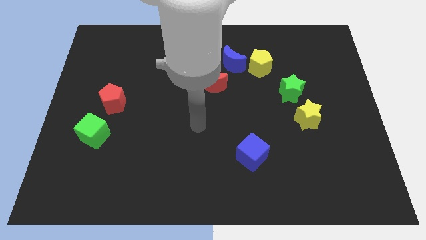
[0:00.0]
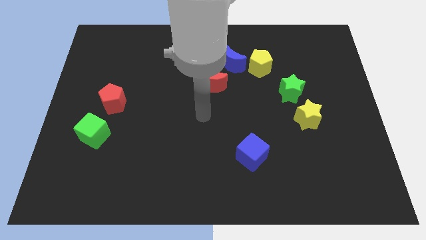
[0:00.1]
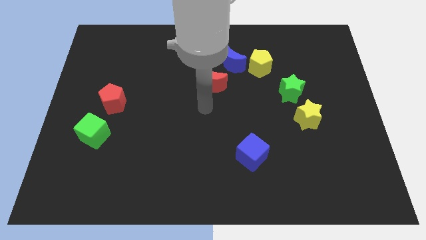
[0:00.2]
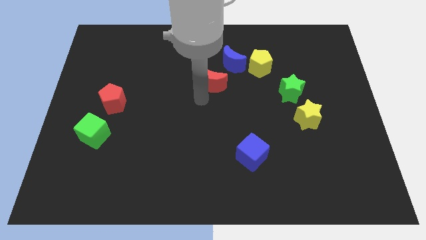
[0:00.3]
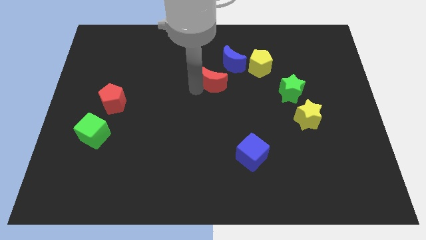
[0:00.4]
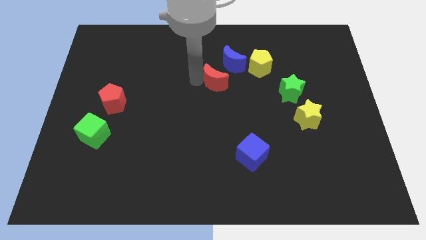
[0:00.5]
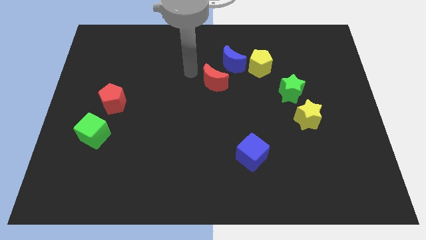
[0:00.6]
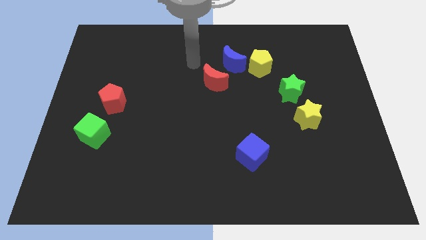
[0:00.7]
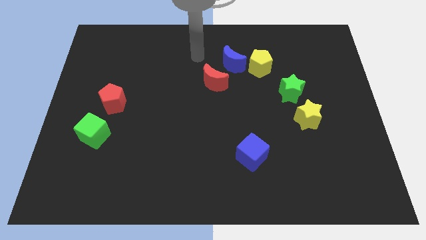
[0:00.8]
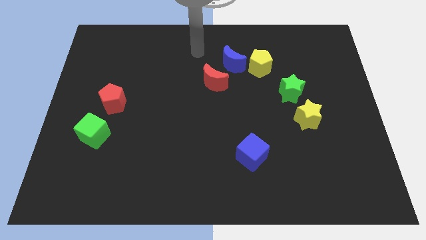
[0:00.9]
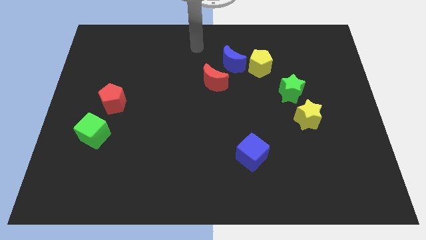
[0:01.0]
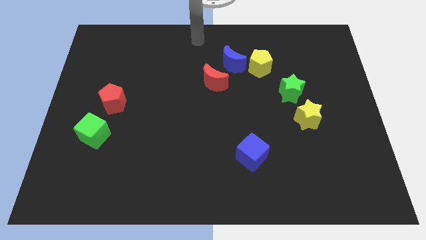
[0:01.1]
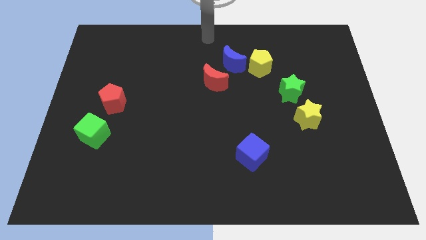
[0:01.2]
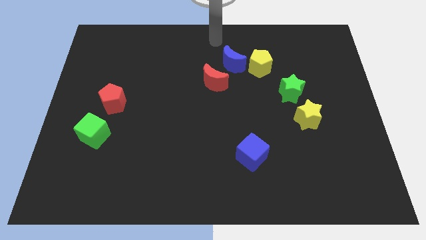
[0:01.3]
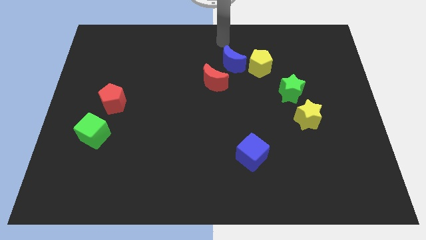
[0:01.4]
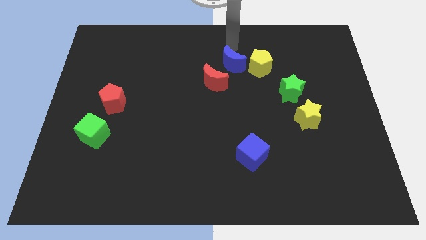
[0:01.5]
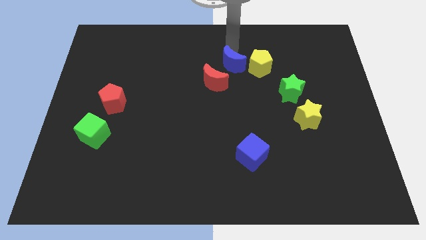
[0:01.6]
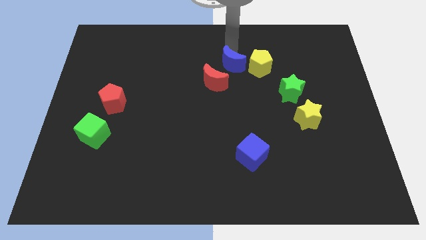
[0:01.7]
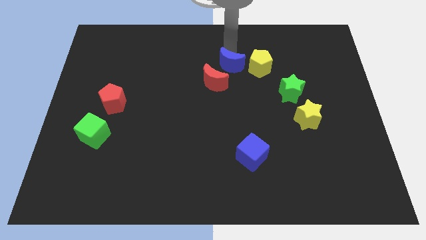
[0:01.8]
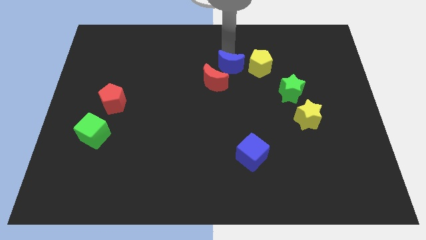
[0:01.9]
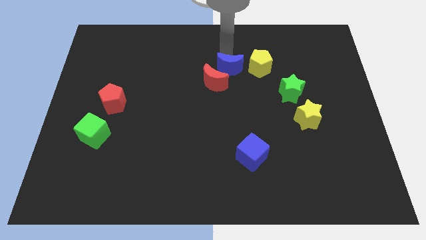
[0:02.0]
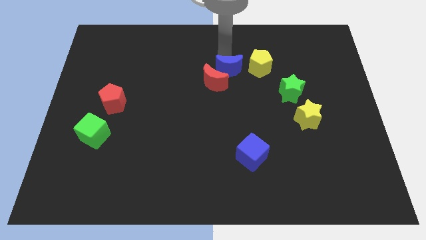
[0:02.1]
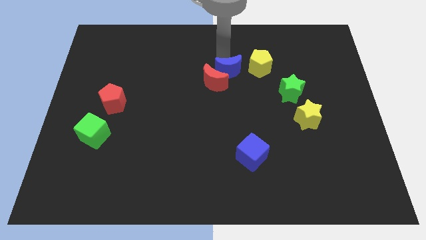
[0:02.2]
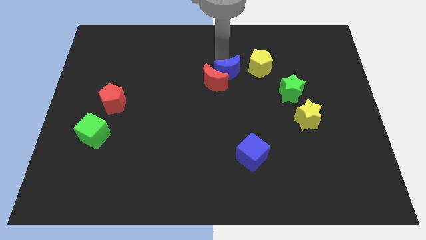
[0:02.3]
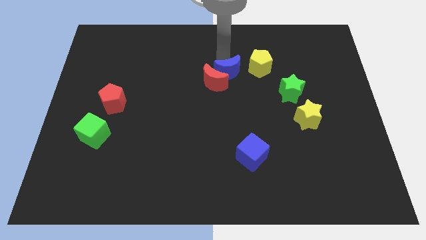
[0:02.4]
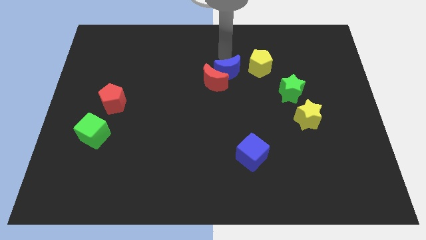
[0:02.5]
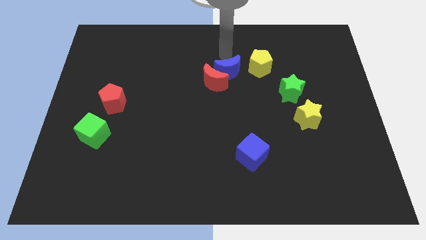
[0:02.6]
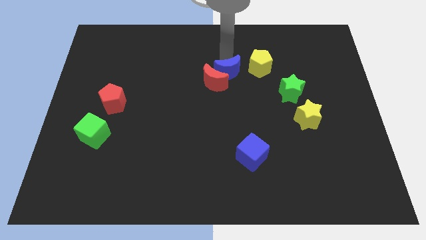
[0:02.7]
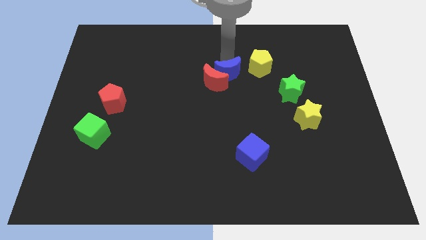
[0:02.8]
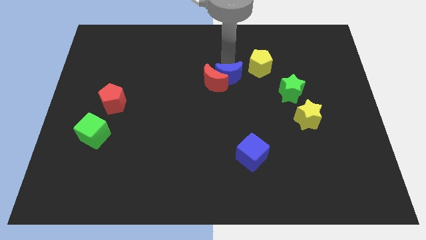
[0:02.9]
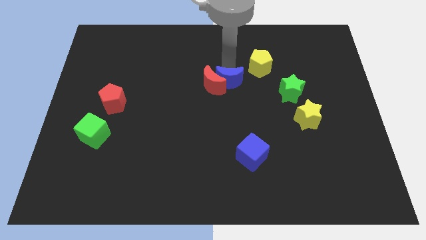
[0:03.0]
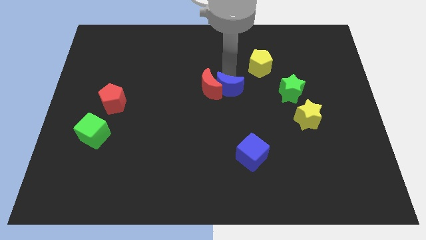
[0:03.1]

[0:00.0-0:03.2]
slightly push the blue moon downwards

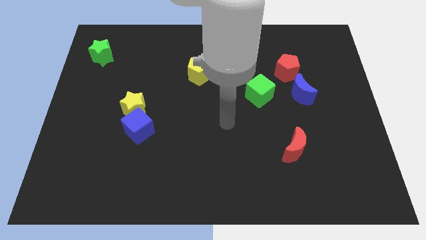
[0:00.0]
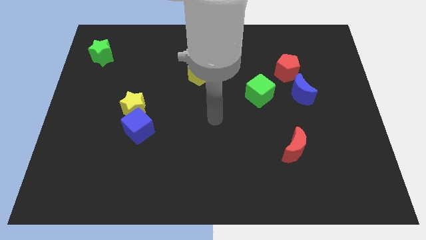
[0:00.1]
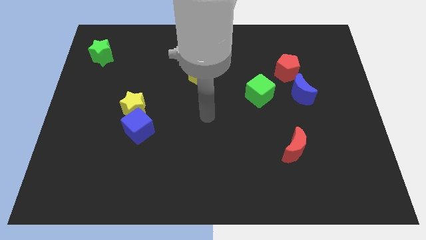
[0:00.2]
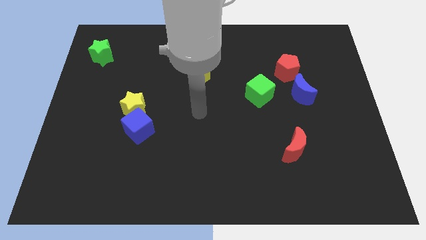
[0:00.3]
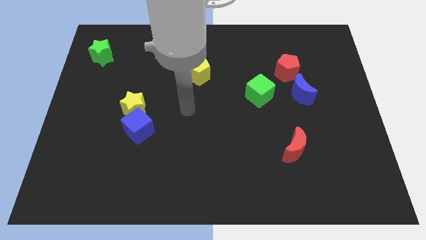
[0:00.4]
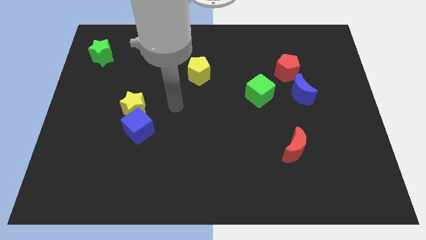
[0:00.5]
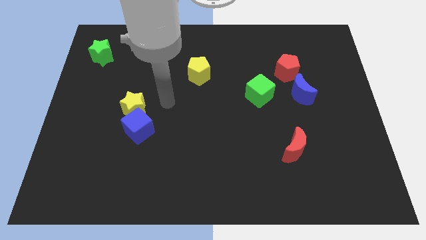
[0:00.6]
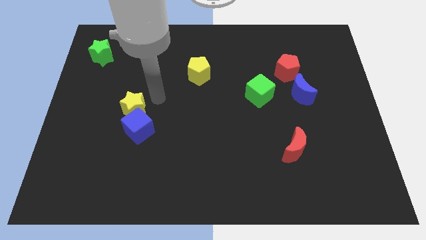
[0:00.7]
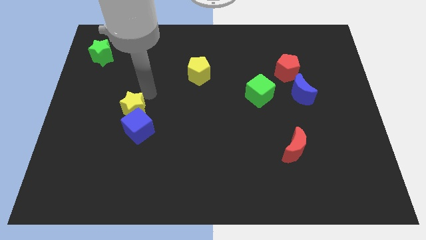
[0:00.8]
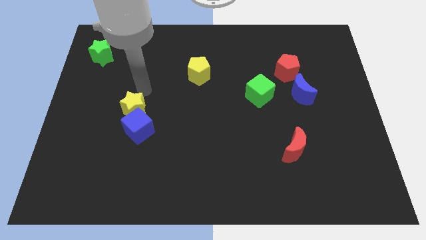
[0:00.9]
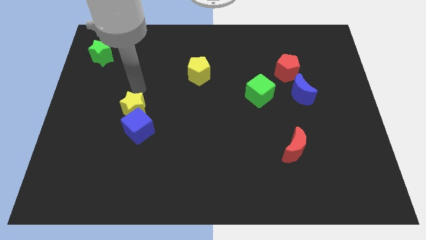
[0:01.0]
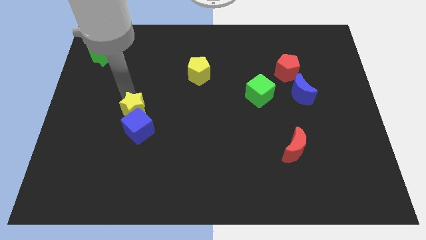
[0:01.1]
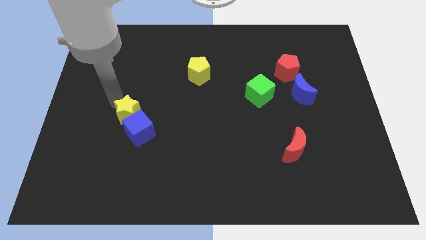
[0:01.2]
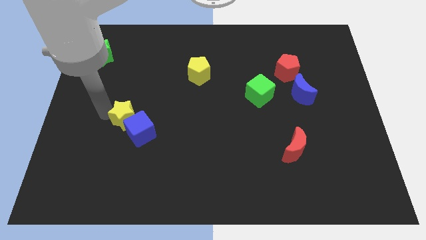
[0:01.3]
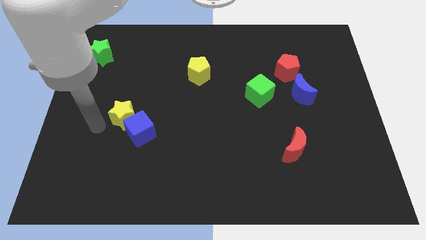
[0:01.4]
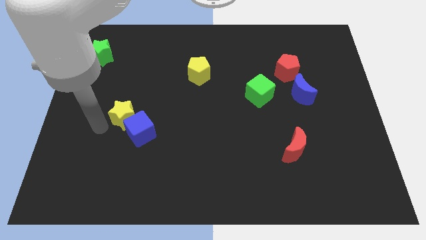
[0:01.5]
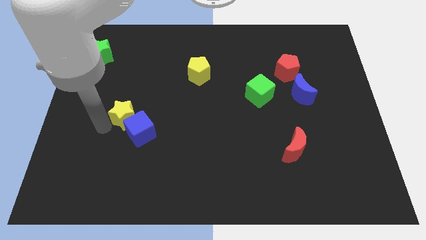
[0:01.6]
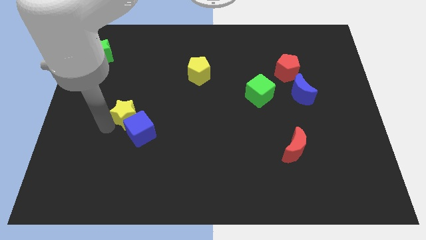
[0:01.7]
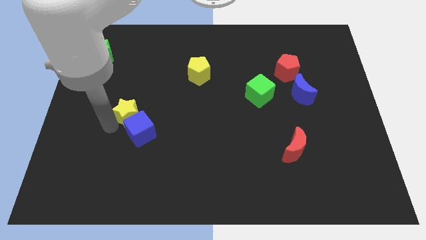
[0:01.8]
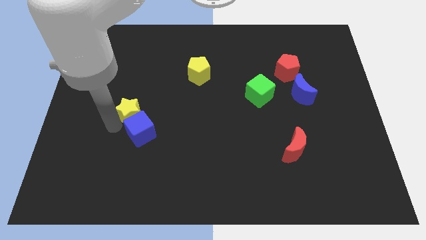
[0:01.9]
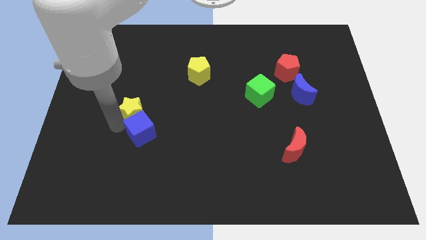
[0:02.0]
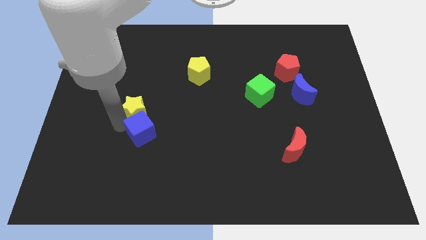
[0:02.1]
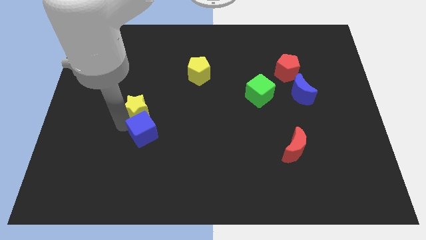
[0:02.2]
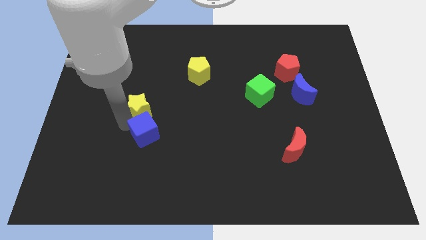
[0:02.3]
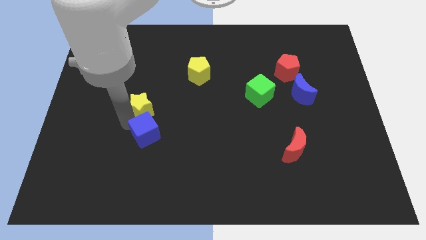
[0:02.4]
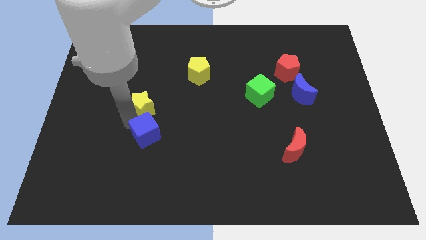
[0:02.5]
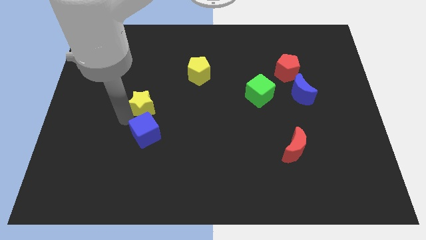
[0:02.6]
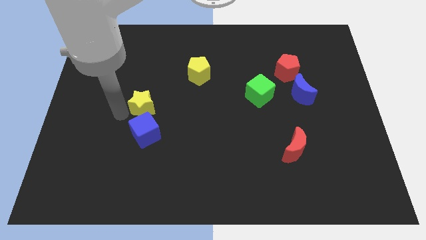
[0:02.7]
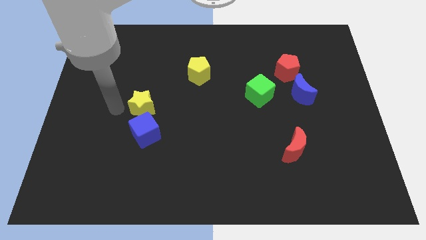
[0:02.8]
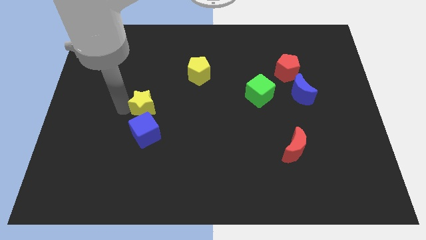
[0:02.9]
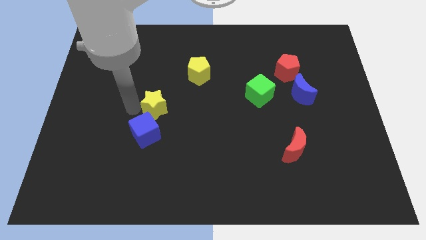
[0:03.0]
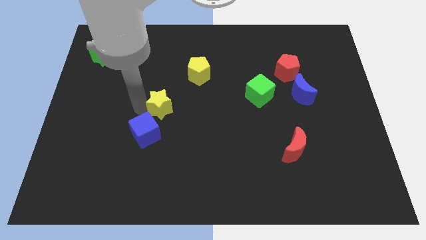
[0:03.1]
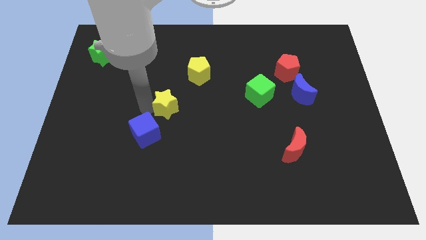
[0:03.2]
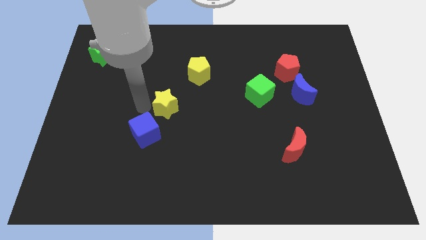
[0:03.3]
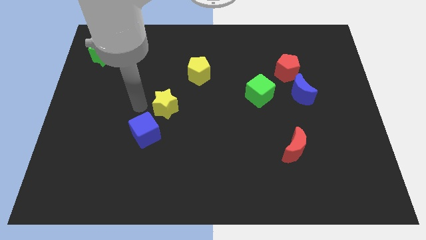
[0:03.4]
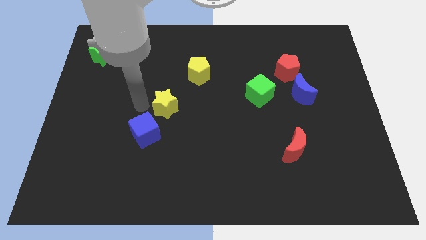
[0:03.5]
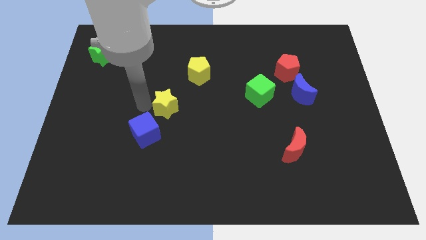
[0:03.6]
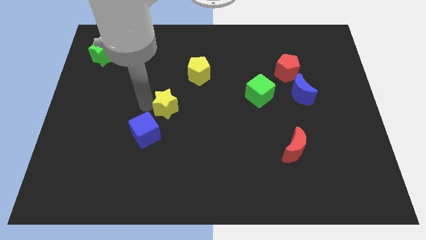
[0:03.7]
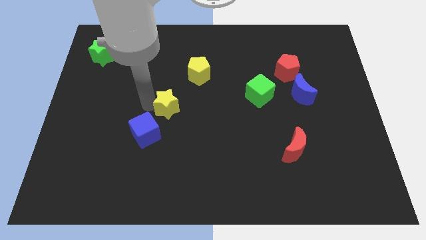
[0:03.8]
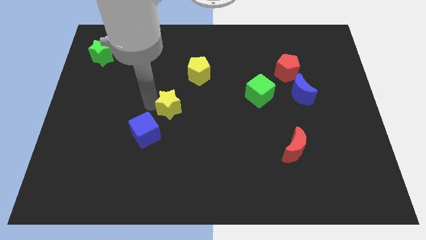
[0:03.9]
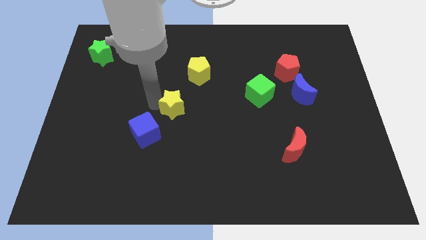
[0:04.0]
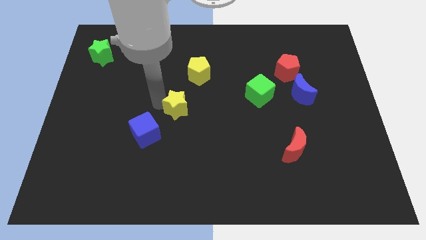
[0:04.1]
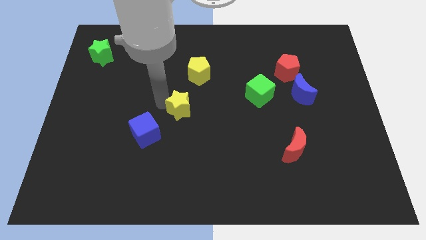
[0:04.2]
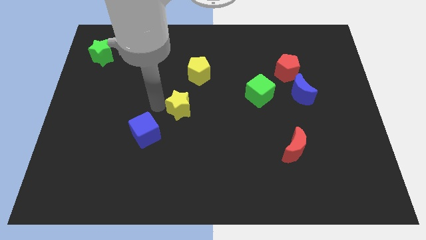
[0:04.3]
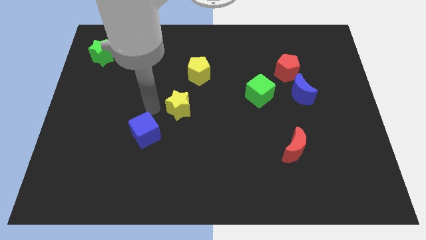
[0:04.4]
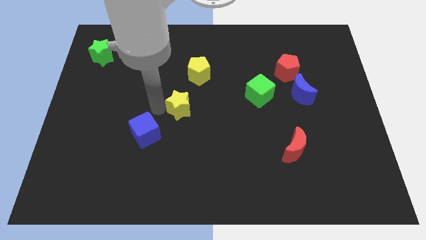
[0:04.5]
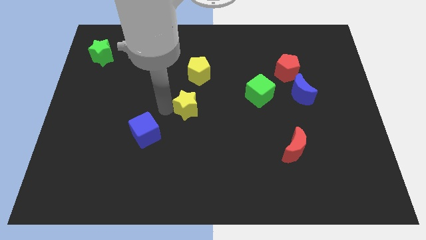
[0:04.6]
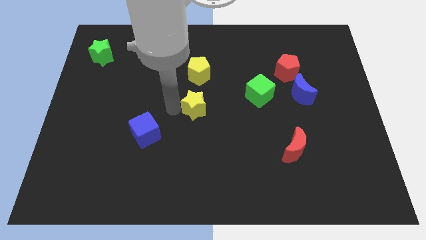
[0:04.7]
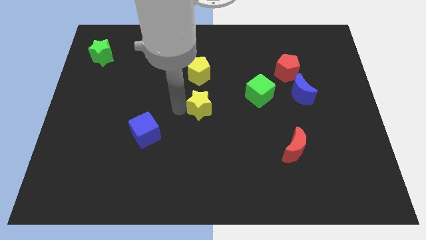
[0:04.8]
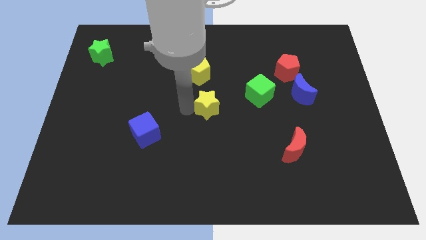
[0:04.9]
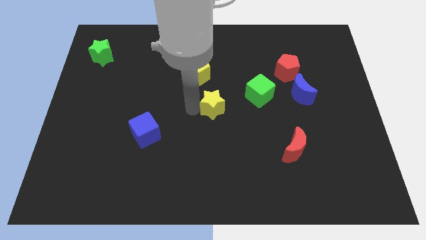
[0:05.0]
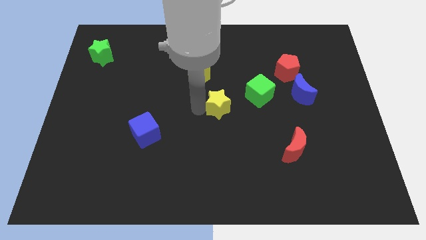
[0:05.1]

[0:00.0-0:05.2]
slide the yellow star right

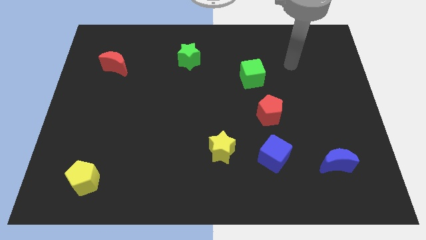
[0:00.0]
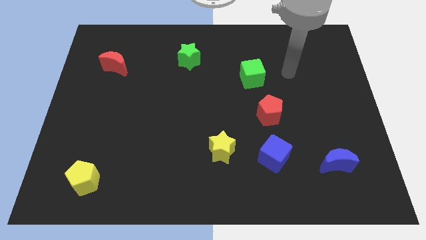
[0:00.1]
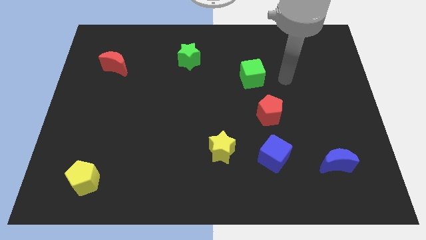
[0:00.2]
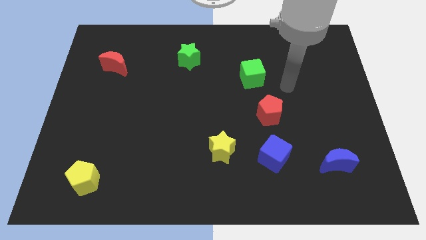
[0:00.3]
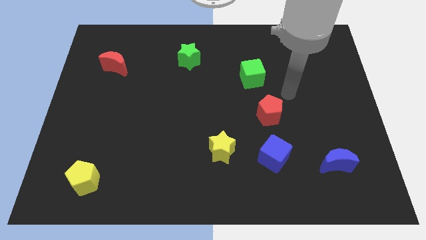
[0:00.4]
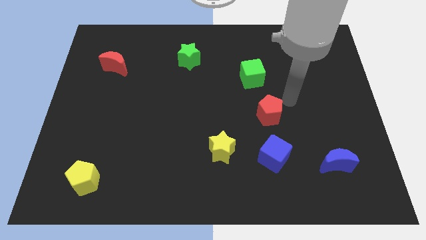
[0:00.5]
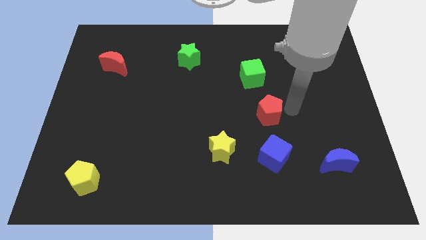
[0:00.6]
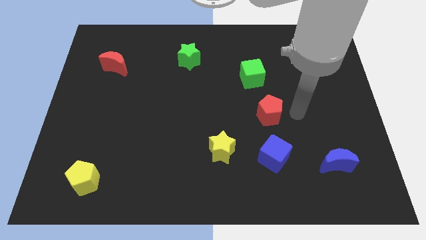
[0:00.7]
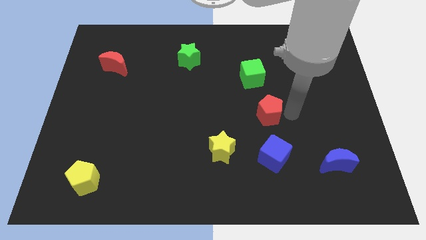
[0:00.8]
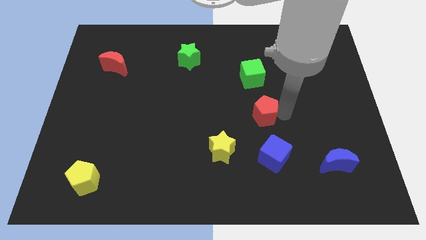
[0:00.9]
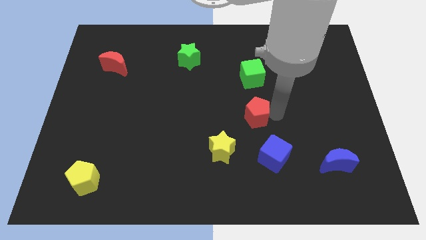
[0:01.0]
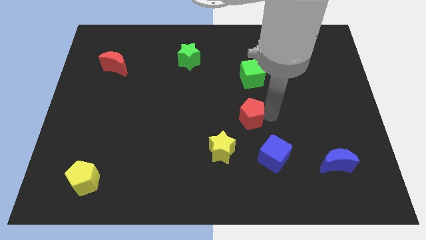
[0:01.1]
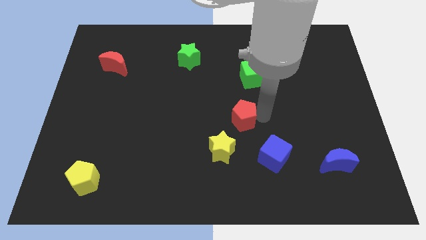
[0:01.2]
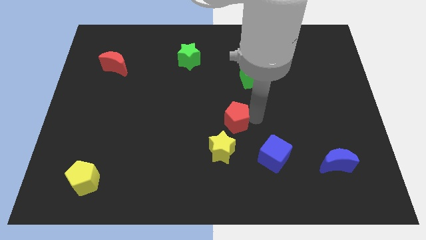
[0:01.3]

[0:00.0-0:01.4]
slide the red pentagon to the left a little bit
